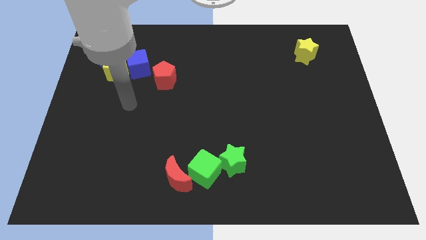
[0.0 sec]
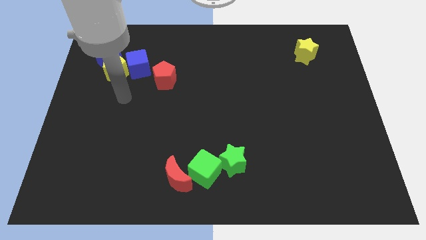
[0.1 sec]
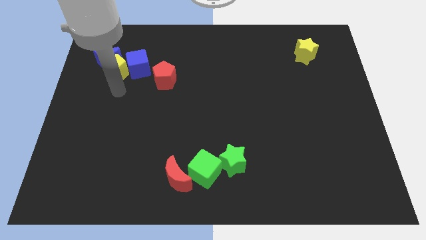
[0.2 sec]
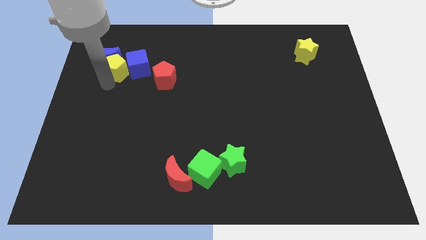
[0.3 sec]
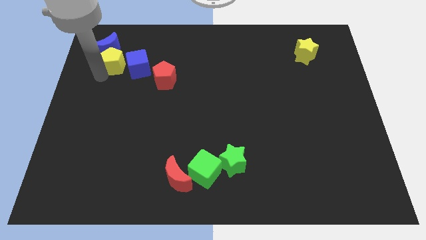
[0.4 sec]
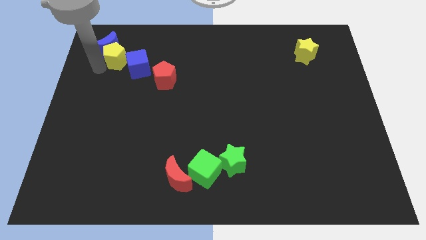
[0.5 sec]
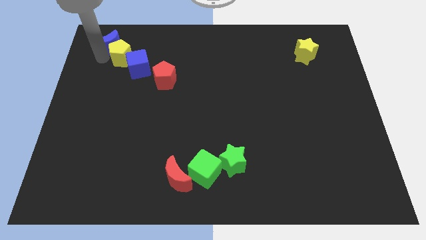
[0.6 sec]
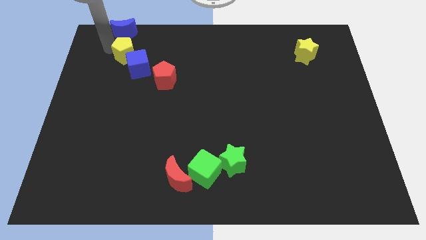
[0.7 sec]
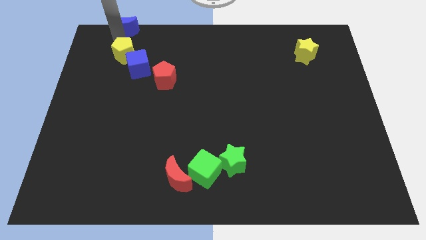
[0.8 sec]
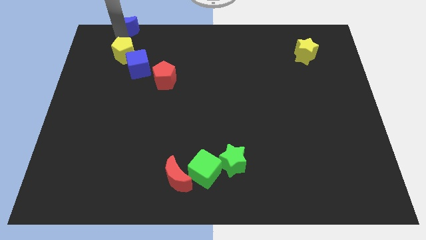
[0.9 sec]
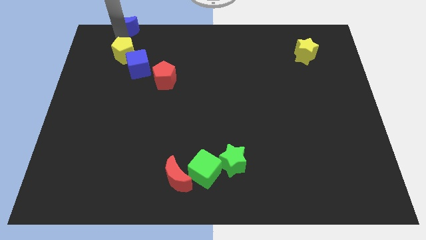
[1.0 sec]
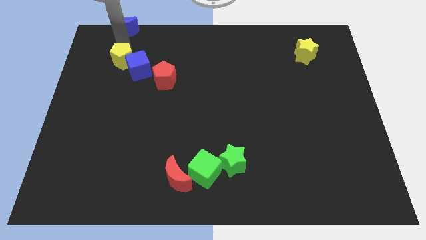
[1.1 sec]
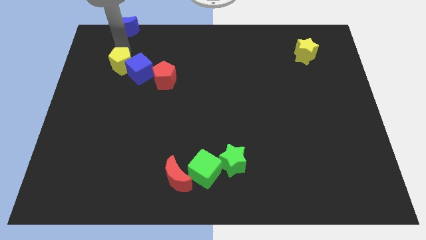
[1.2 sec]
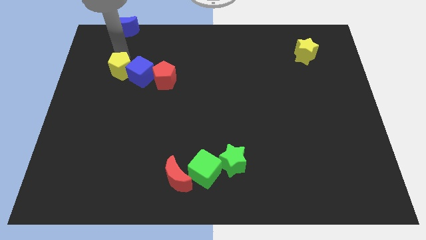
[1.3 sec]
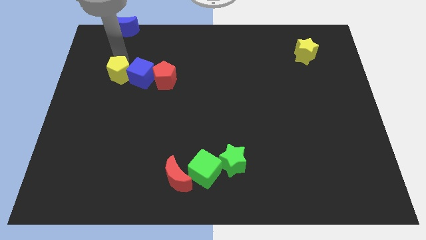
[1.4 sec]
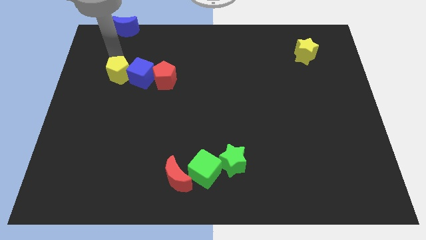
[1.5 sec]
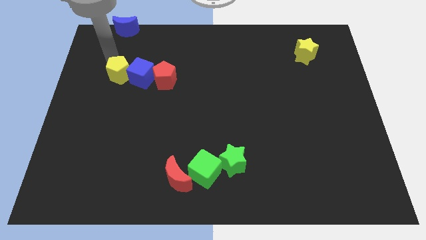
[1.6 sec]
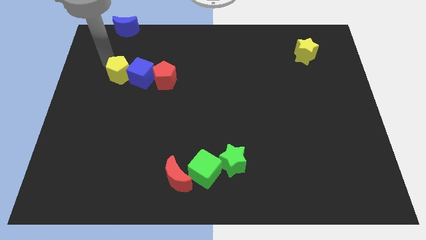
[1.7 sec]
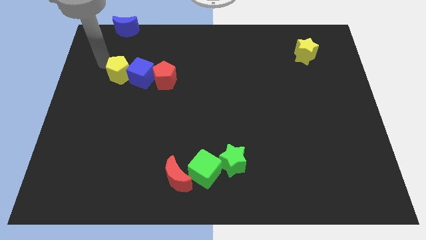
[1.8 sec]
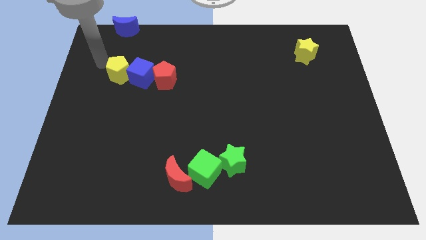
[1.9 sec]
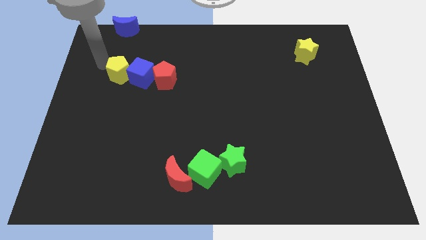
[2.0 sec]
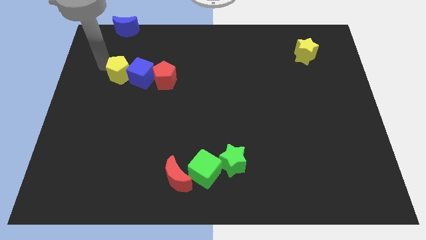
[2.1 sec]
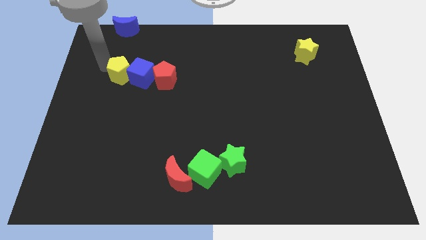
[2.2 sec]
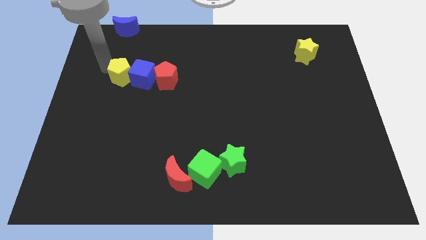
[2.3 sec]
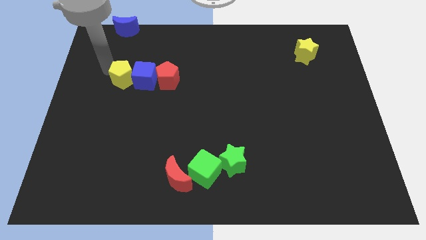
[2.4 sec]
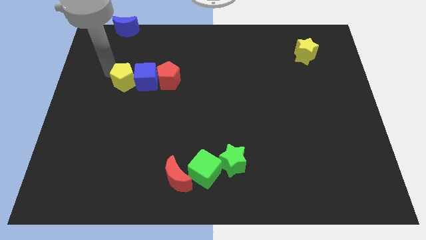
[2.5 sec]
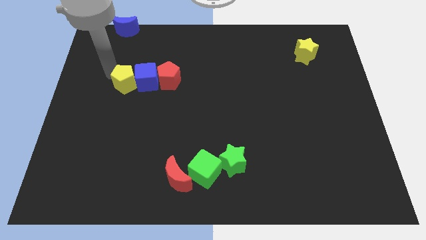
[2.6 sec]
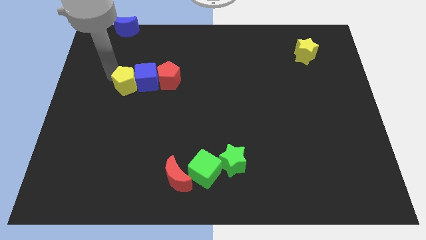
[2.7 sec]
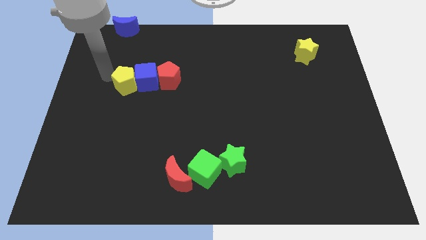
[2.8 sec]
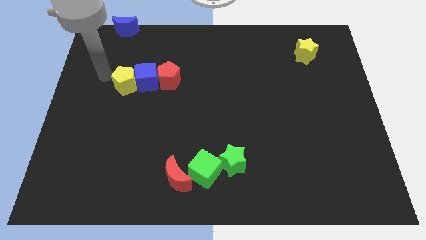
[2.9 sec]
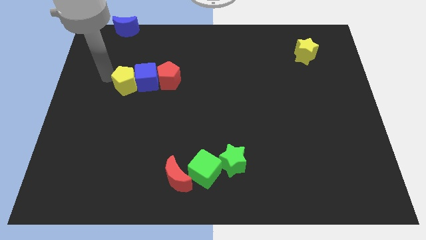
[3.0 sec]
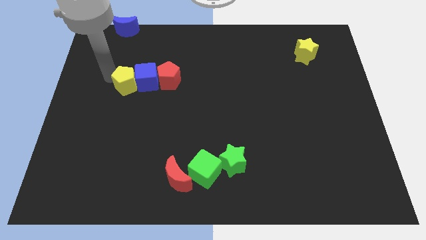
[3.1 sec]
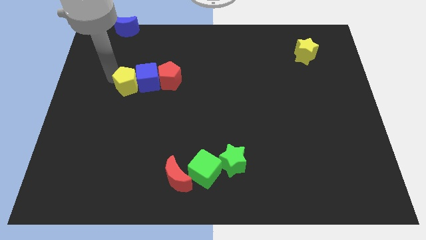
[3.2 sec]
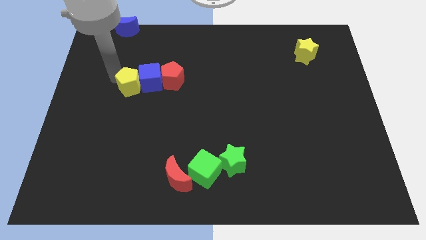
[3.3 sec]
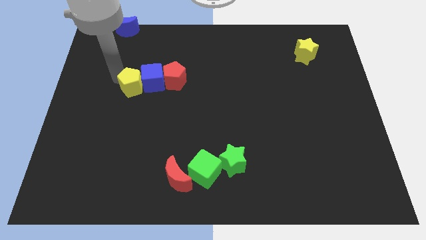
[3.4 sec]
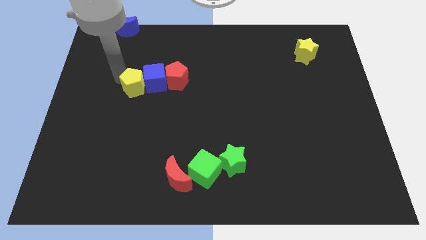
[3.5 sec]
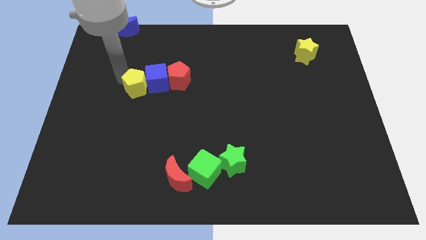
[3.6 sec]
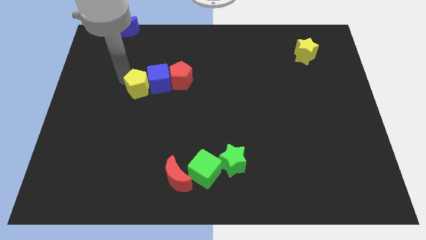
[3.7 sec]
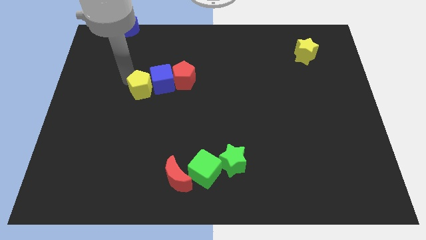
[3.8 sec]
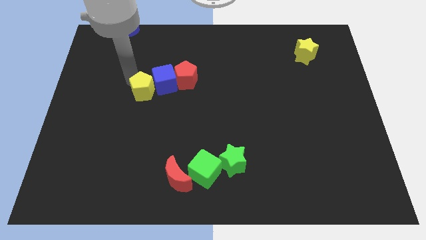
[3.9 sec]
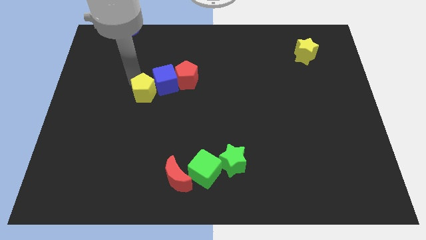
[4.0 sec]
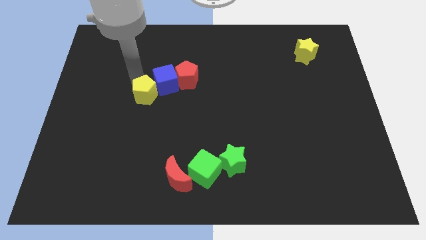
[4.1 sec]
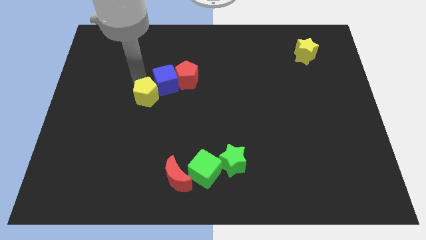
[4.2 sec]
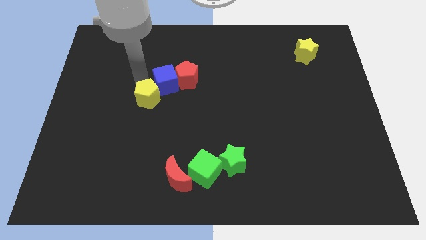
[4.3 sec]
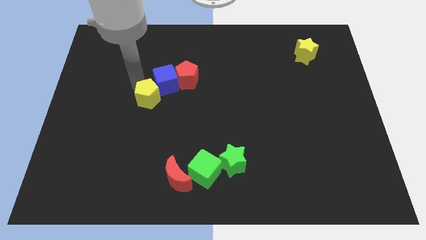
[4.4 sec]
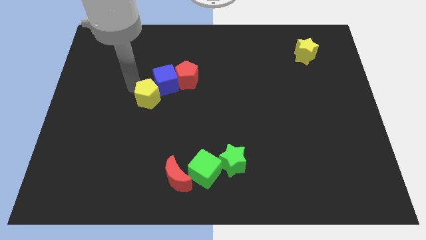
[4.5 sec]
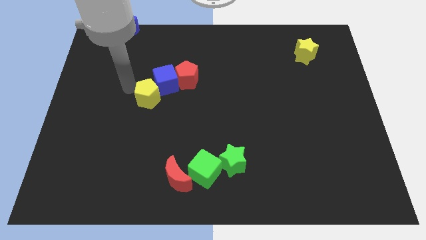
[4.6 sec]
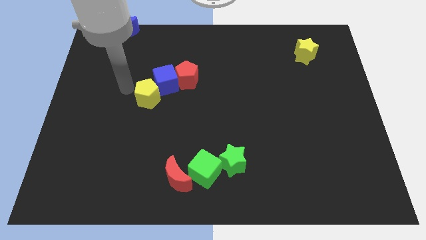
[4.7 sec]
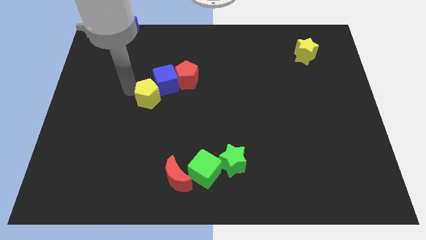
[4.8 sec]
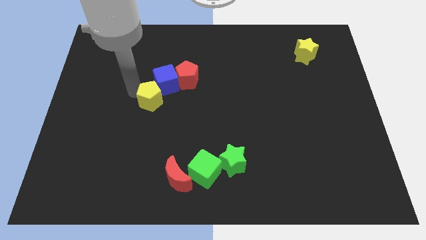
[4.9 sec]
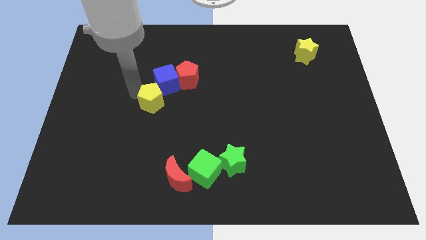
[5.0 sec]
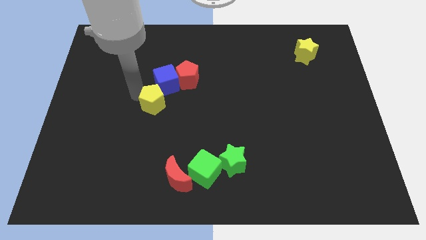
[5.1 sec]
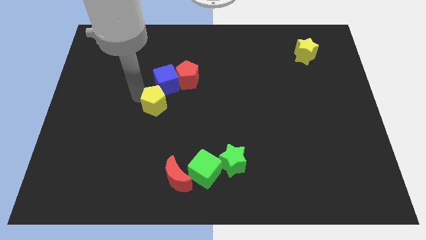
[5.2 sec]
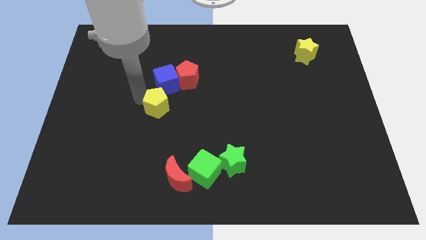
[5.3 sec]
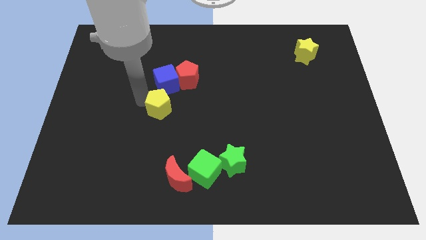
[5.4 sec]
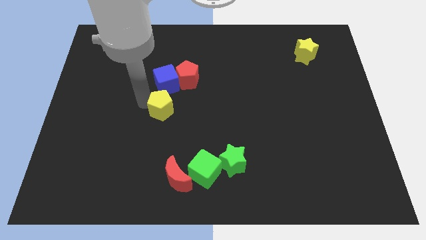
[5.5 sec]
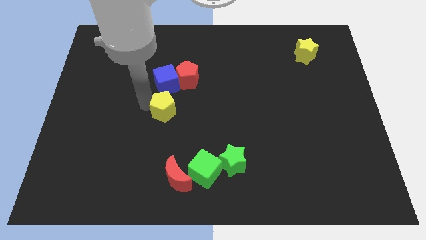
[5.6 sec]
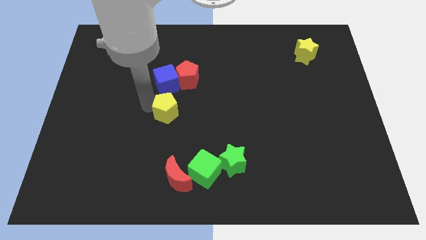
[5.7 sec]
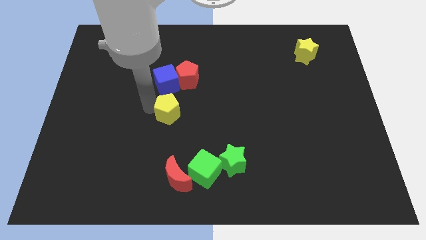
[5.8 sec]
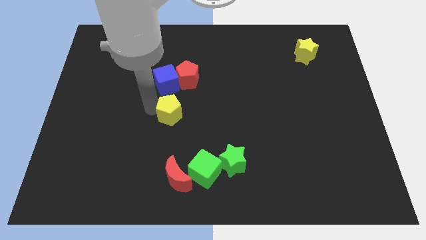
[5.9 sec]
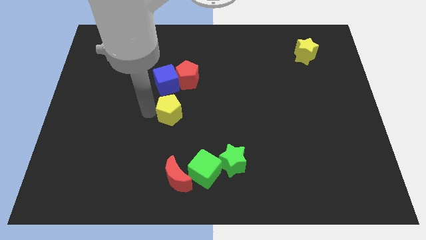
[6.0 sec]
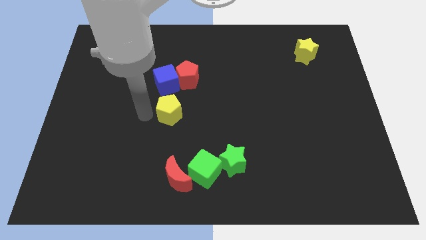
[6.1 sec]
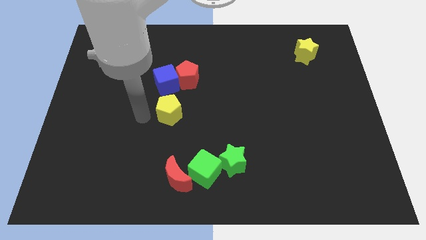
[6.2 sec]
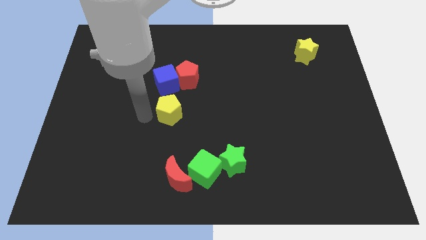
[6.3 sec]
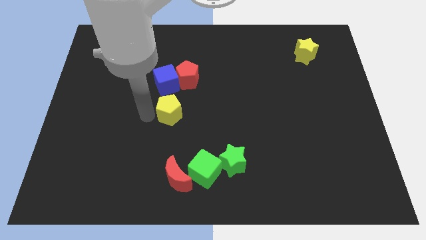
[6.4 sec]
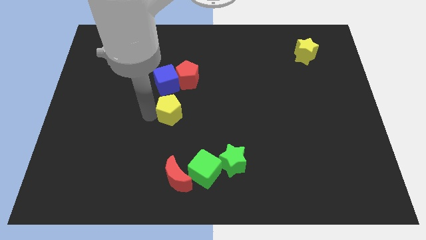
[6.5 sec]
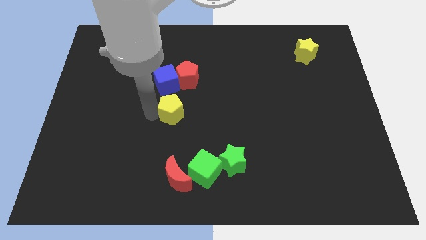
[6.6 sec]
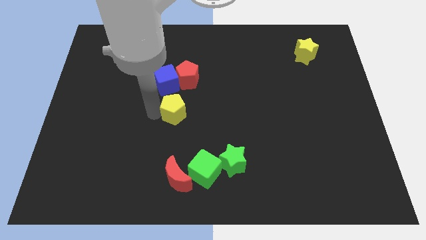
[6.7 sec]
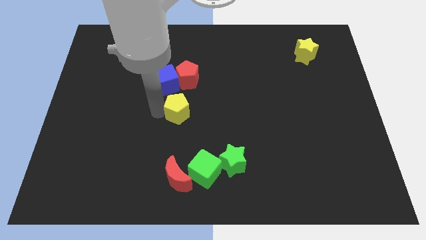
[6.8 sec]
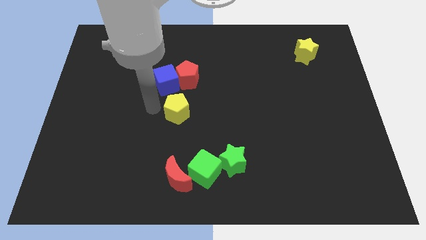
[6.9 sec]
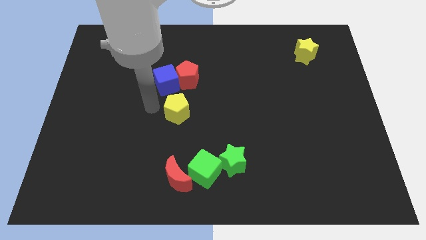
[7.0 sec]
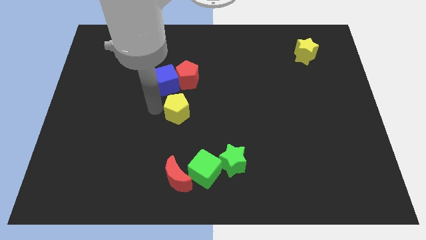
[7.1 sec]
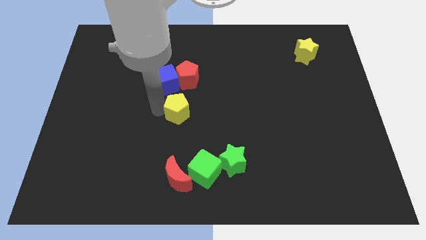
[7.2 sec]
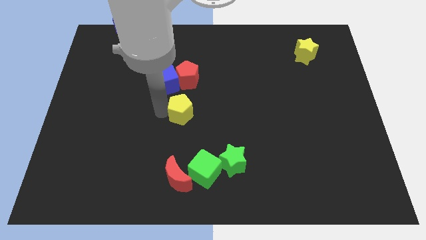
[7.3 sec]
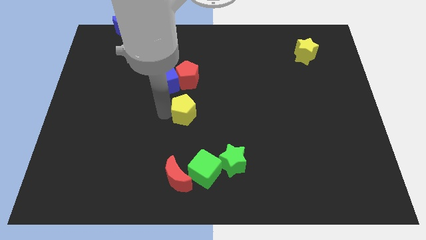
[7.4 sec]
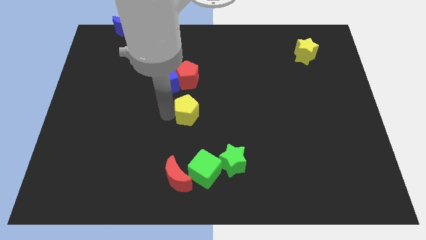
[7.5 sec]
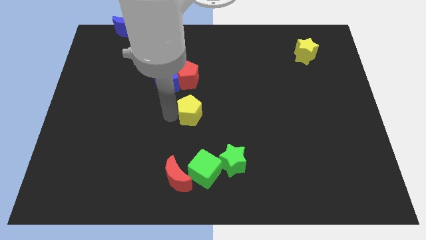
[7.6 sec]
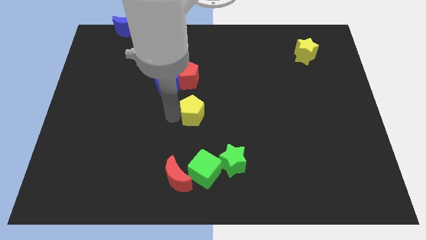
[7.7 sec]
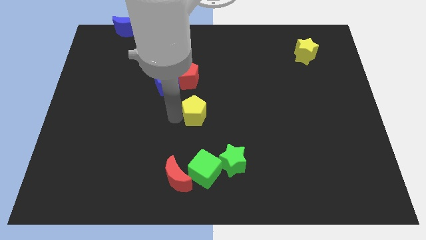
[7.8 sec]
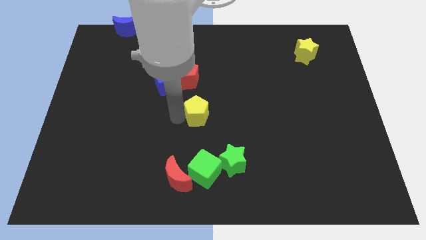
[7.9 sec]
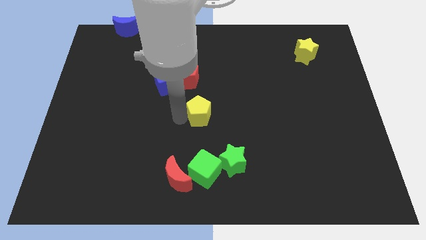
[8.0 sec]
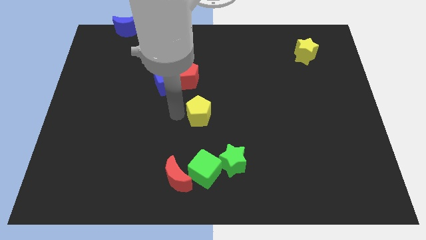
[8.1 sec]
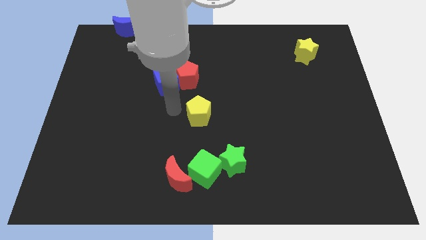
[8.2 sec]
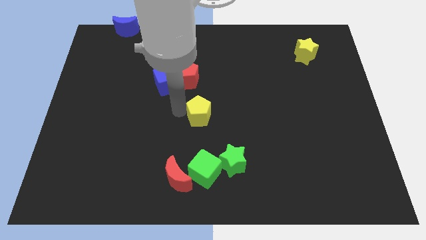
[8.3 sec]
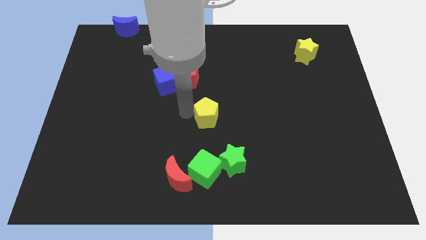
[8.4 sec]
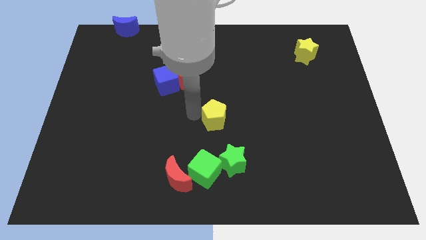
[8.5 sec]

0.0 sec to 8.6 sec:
put the yellow pentagon to the top side of the green star
